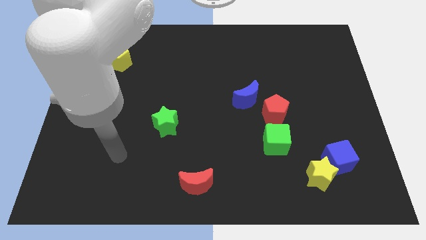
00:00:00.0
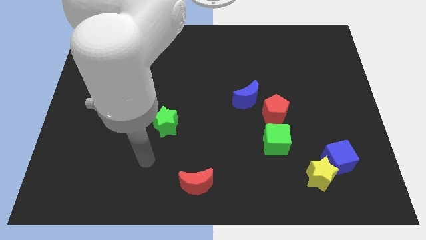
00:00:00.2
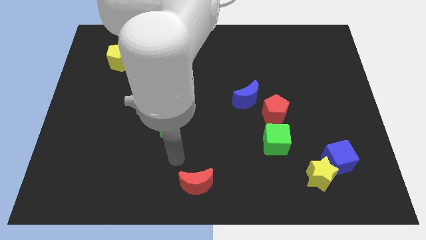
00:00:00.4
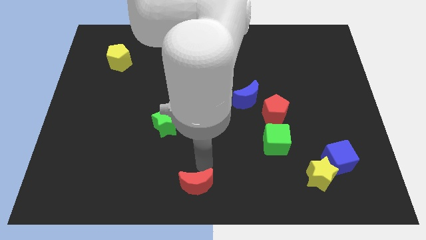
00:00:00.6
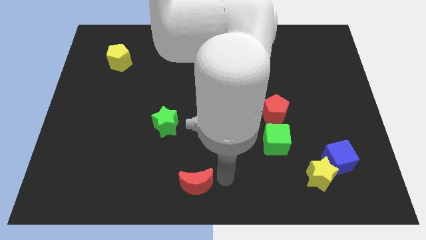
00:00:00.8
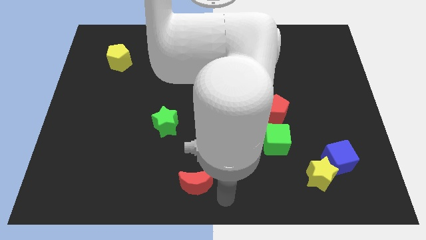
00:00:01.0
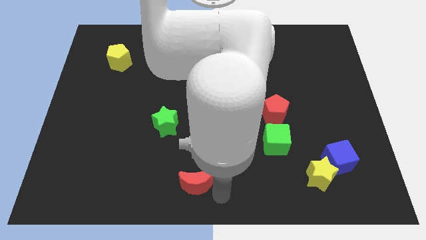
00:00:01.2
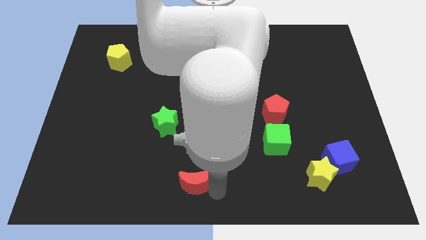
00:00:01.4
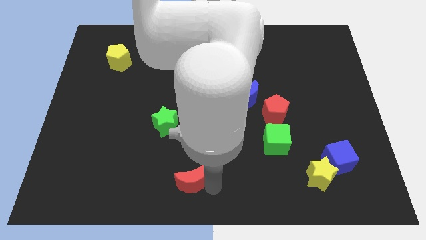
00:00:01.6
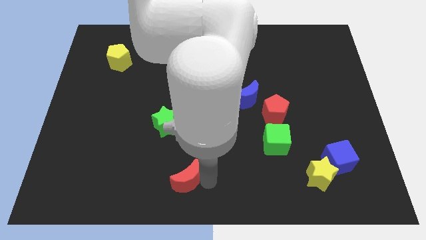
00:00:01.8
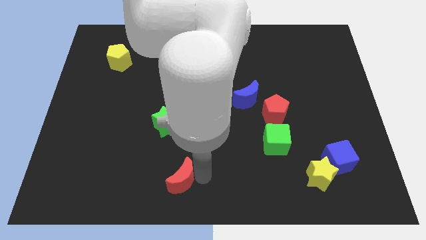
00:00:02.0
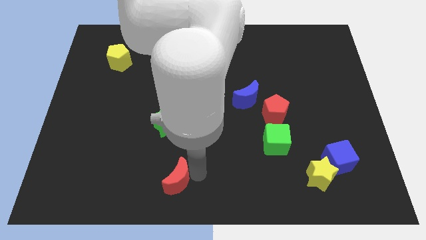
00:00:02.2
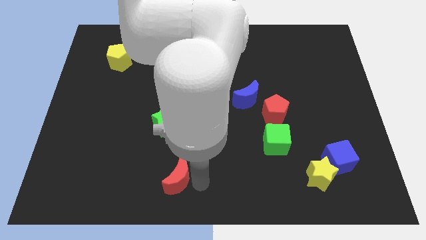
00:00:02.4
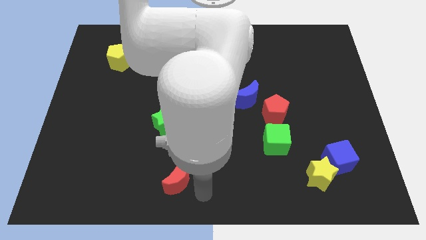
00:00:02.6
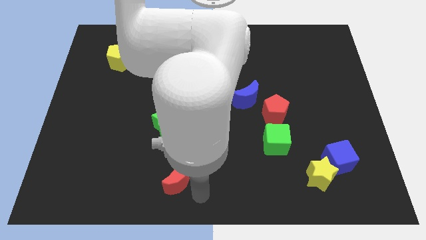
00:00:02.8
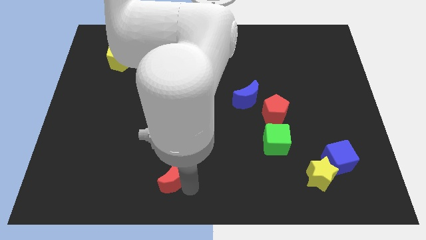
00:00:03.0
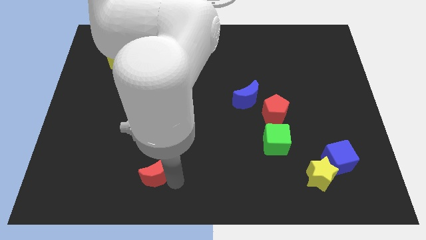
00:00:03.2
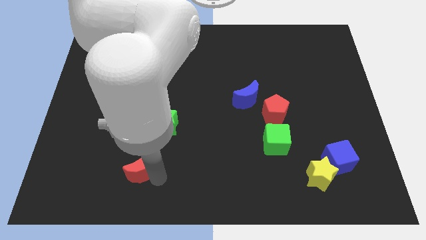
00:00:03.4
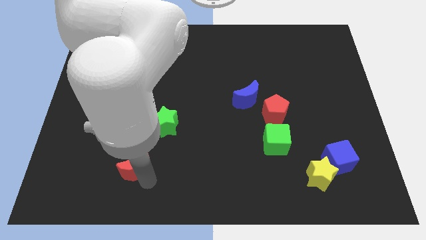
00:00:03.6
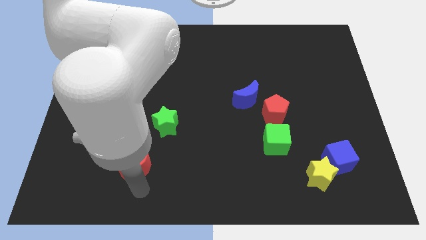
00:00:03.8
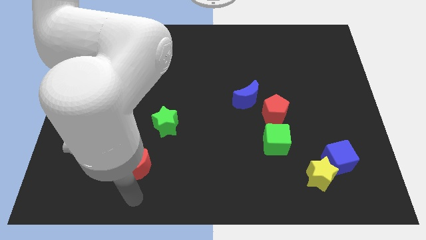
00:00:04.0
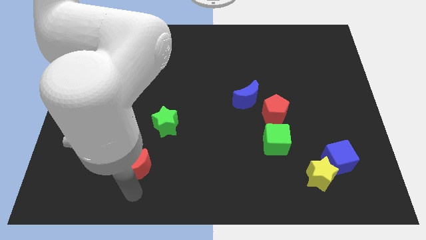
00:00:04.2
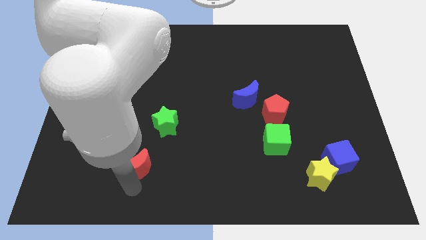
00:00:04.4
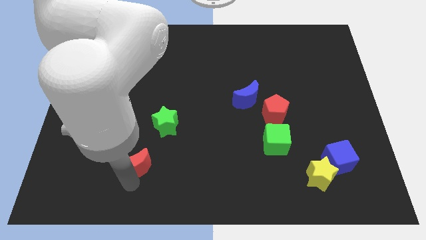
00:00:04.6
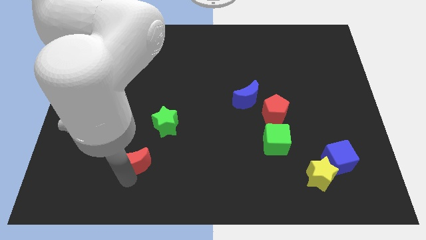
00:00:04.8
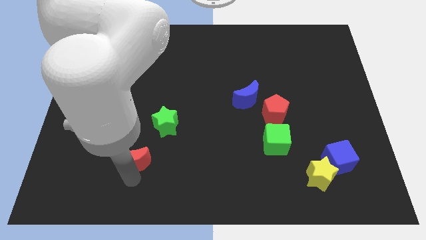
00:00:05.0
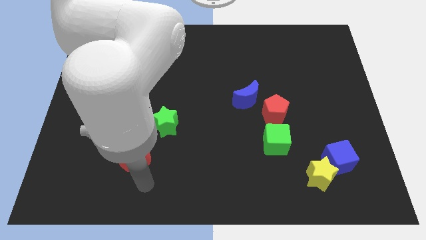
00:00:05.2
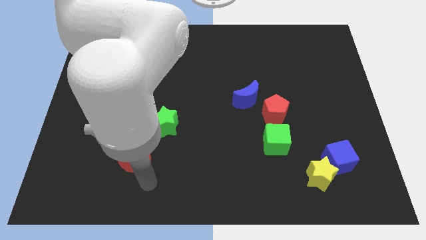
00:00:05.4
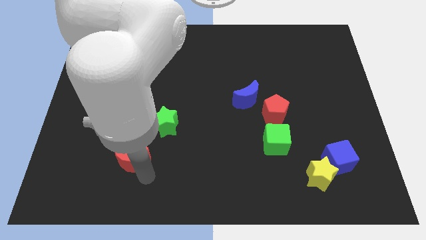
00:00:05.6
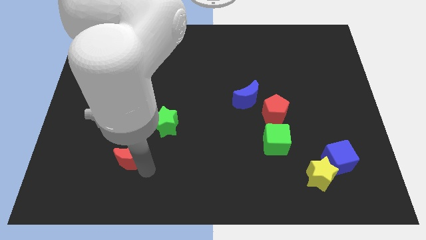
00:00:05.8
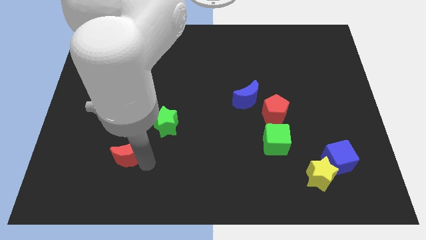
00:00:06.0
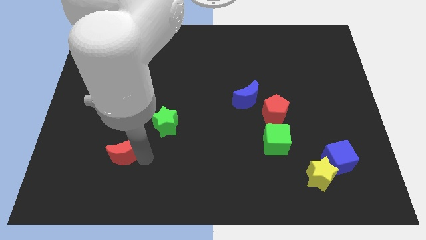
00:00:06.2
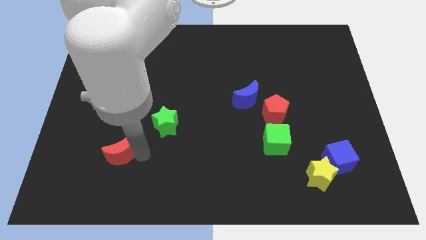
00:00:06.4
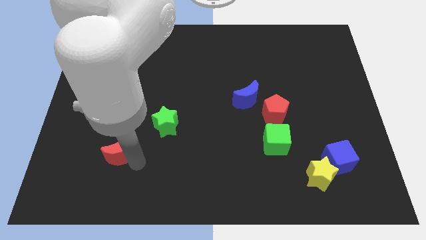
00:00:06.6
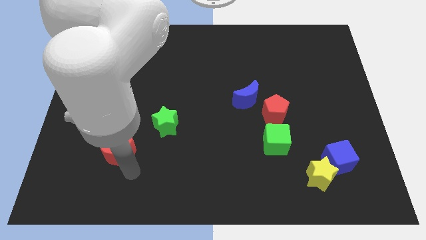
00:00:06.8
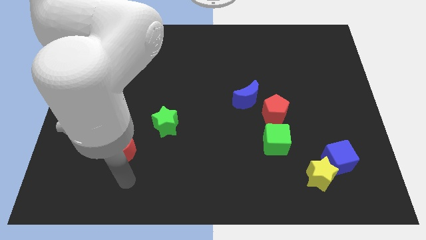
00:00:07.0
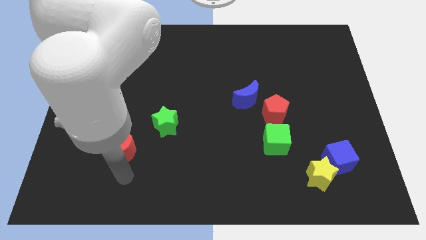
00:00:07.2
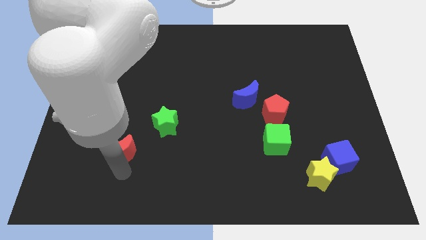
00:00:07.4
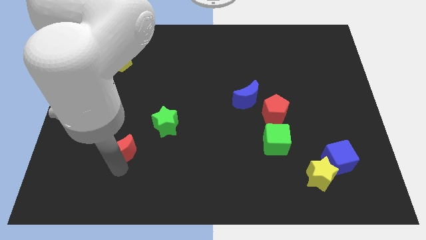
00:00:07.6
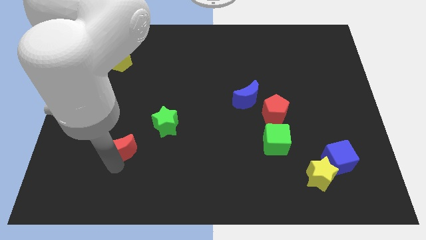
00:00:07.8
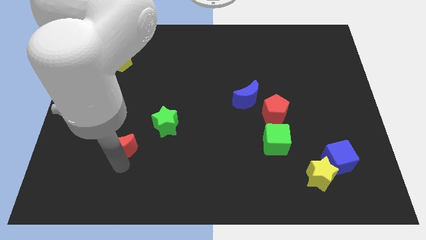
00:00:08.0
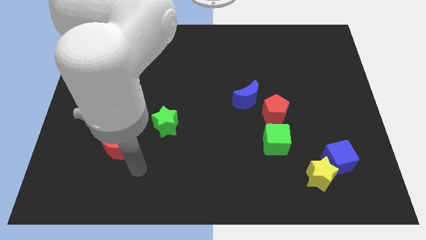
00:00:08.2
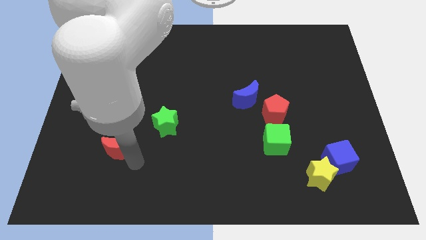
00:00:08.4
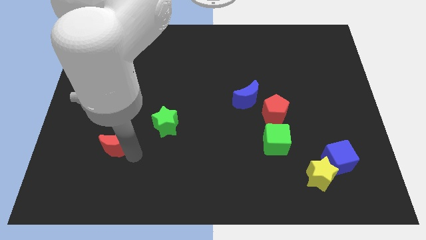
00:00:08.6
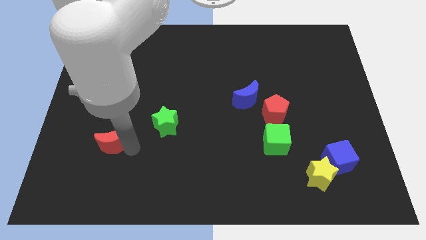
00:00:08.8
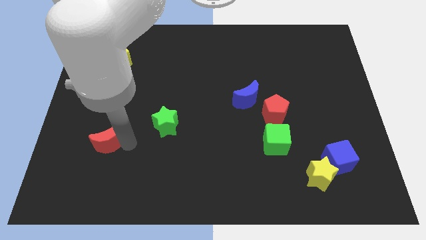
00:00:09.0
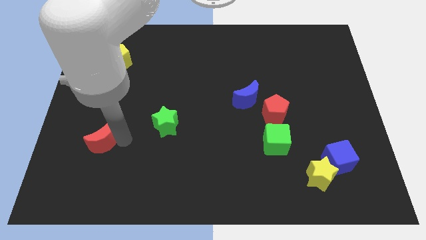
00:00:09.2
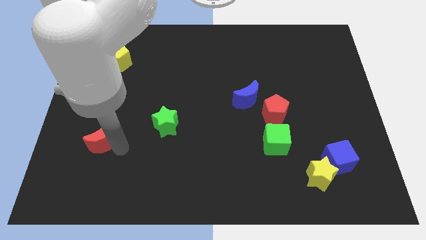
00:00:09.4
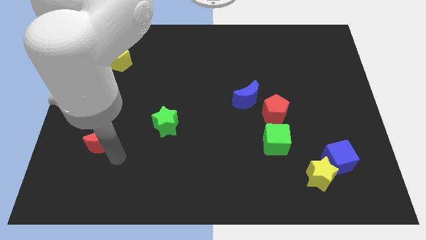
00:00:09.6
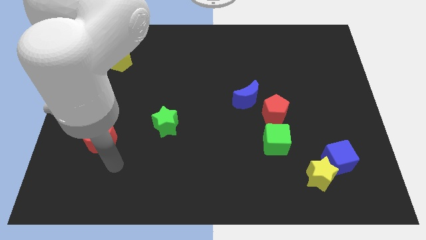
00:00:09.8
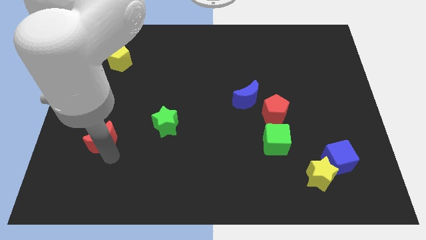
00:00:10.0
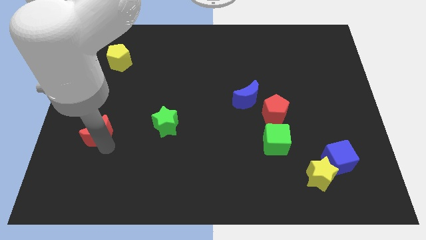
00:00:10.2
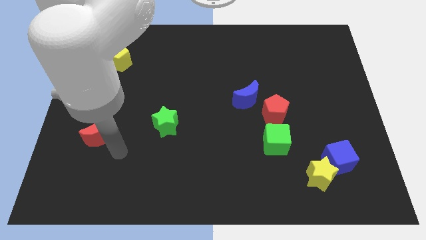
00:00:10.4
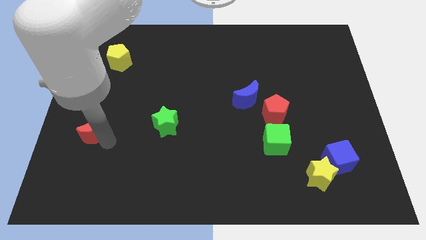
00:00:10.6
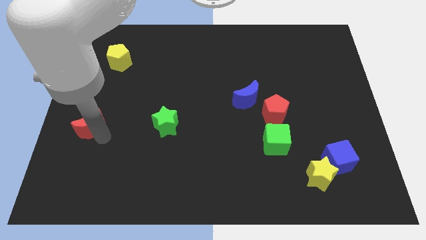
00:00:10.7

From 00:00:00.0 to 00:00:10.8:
move the red moon to the center left

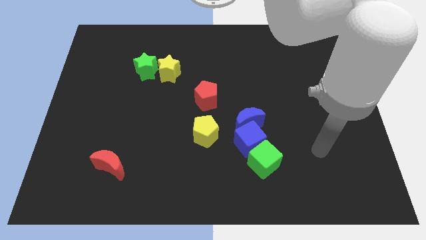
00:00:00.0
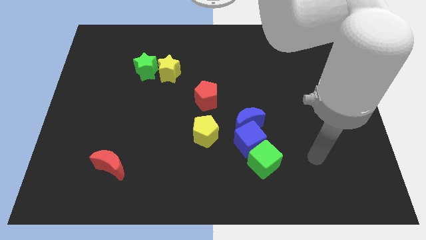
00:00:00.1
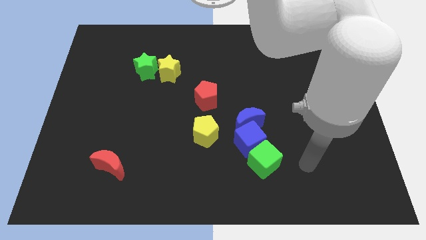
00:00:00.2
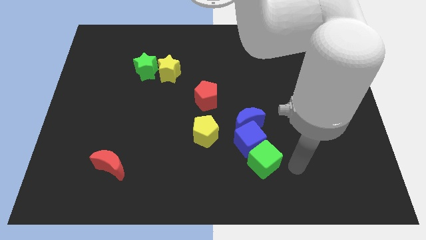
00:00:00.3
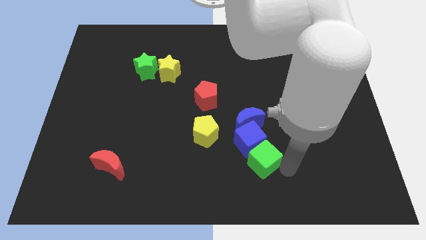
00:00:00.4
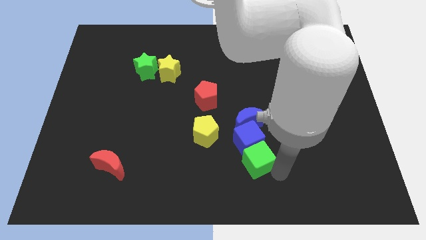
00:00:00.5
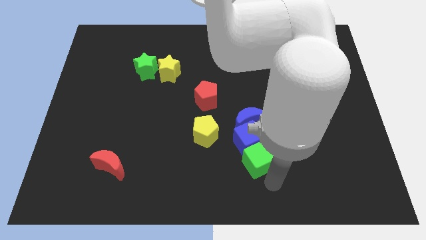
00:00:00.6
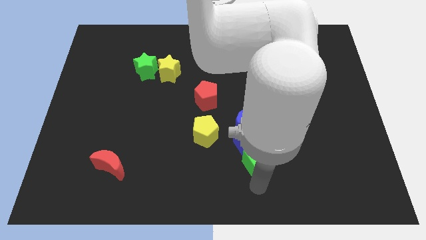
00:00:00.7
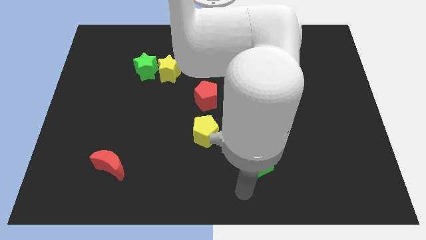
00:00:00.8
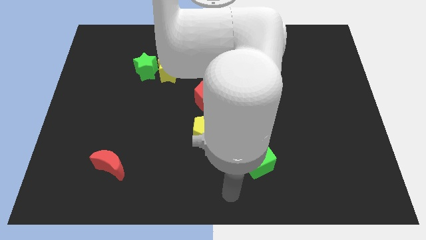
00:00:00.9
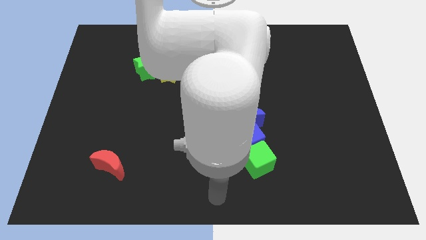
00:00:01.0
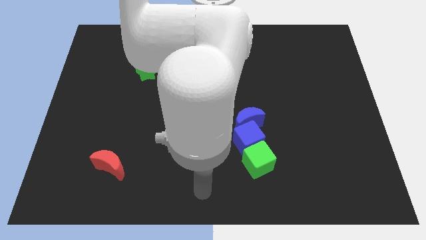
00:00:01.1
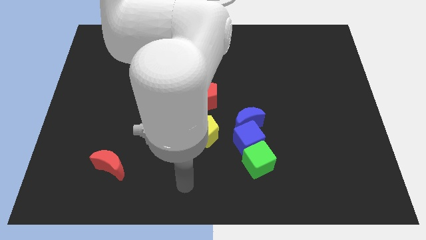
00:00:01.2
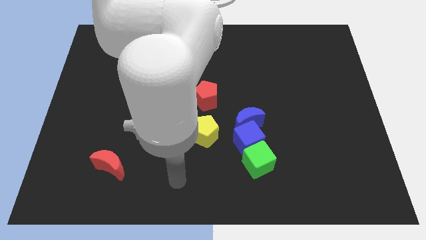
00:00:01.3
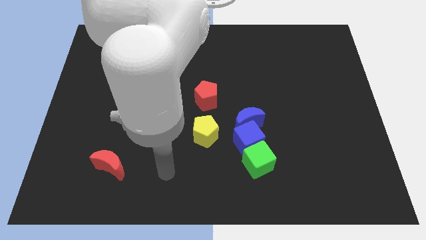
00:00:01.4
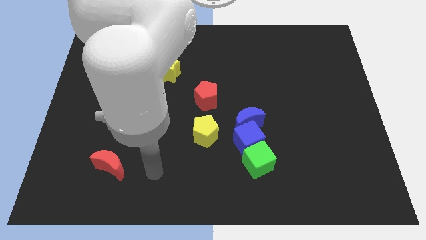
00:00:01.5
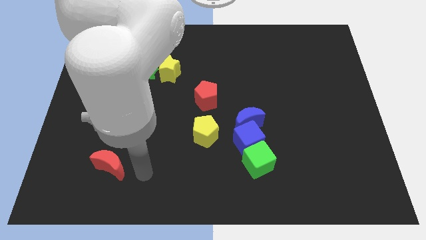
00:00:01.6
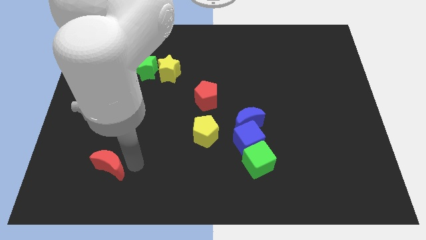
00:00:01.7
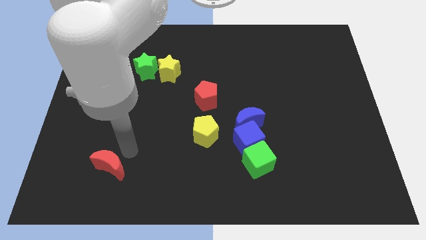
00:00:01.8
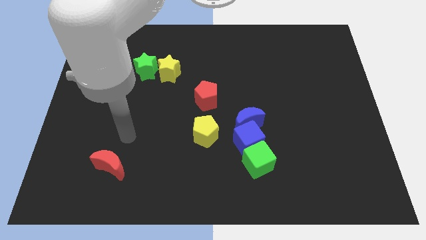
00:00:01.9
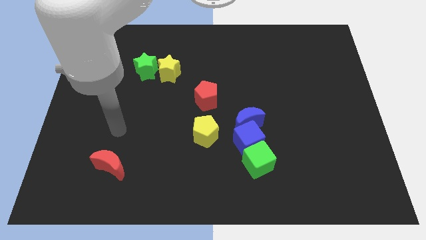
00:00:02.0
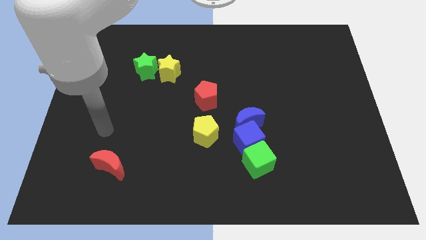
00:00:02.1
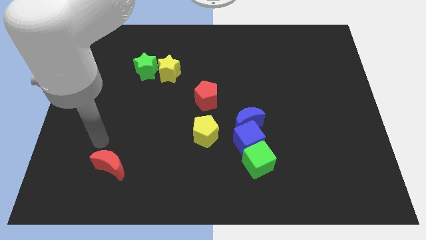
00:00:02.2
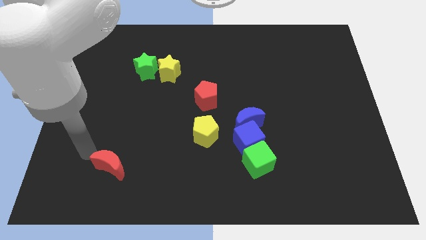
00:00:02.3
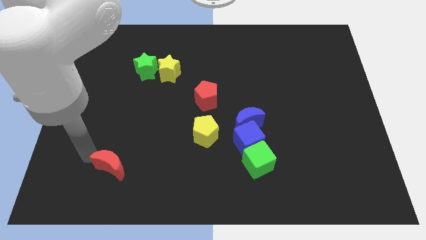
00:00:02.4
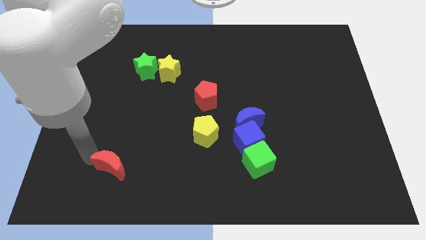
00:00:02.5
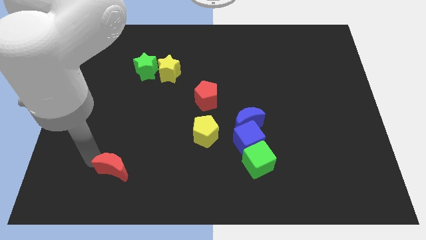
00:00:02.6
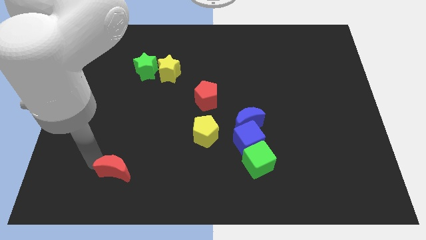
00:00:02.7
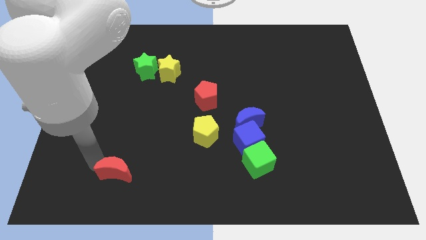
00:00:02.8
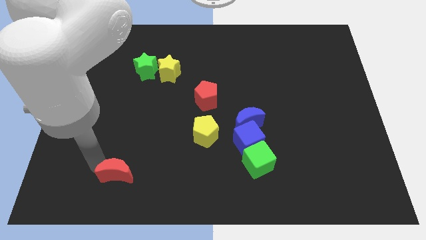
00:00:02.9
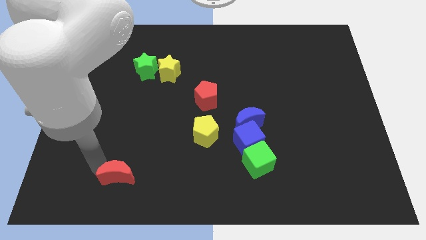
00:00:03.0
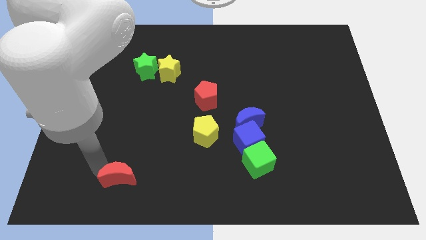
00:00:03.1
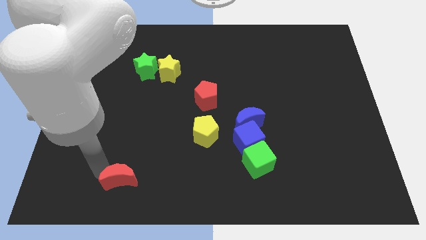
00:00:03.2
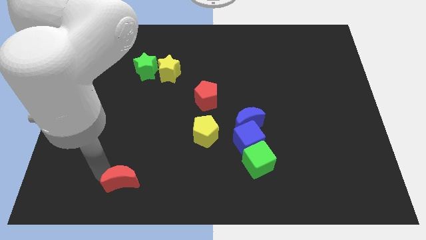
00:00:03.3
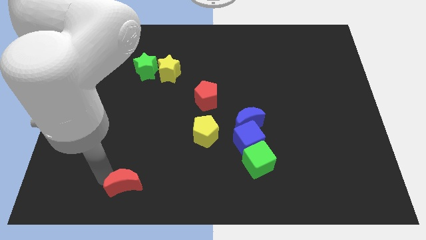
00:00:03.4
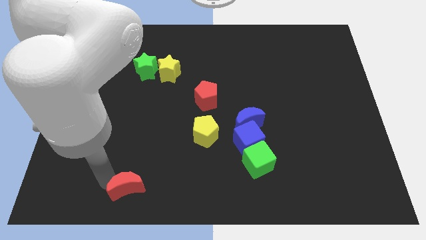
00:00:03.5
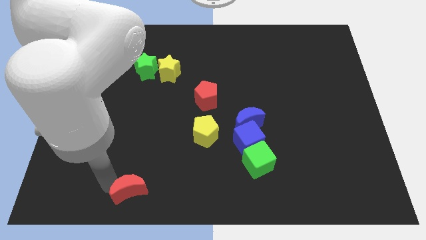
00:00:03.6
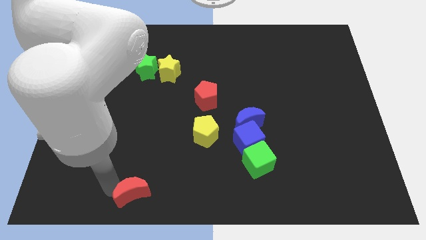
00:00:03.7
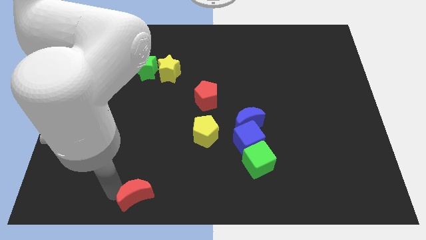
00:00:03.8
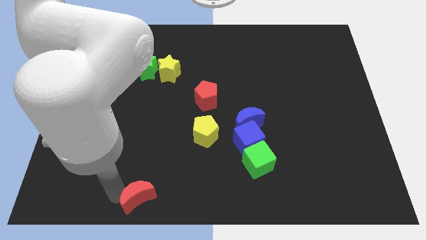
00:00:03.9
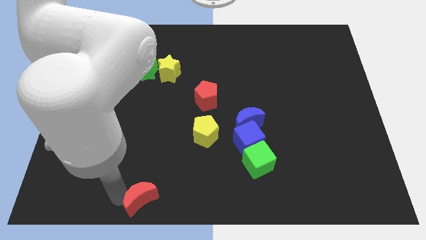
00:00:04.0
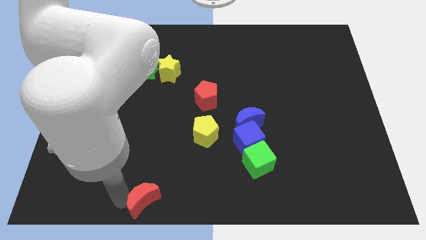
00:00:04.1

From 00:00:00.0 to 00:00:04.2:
push the red moon to the bottom side
